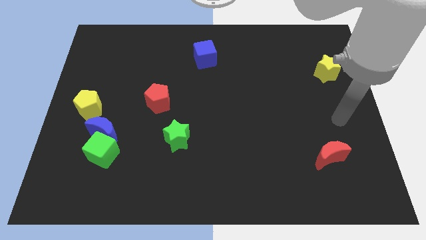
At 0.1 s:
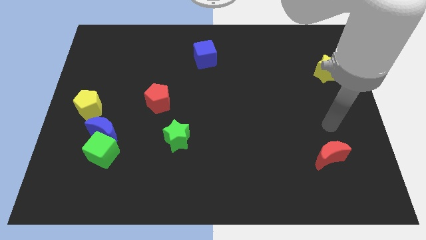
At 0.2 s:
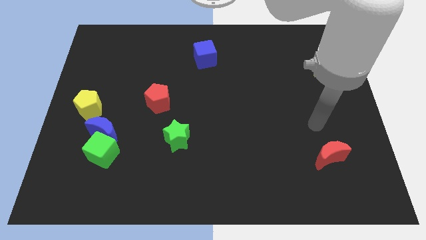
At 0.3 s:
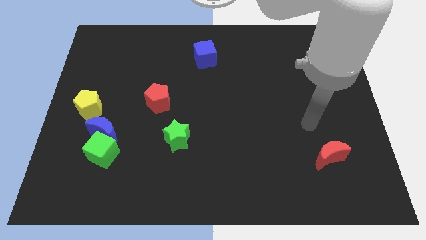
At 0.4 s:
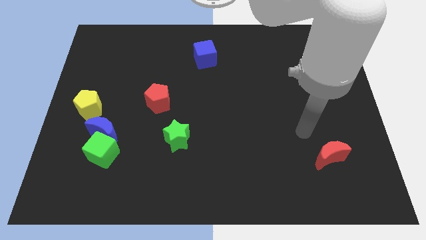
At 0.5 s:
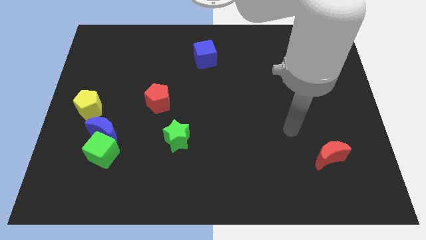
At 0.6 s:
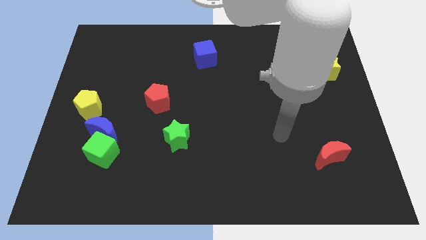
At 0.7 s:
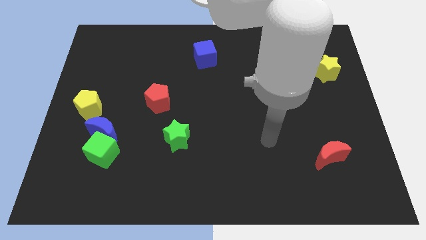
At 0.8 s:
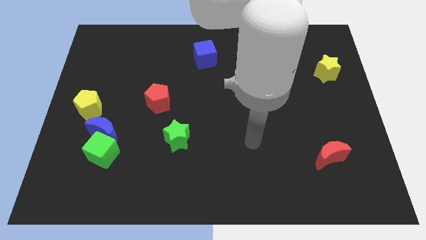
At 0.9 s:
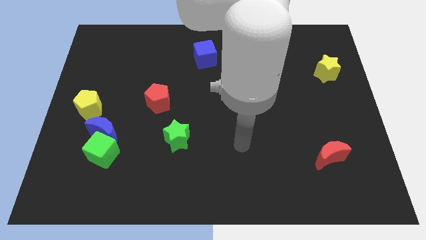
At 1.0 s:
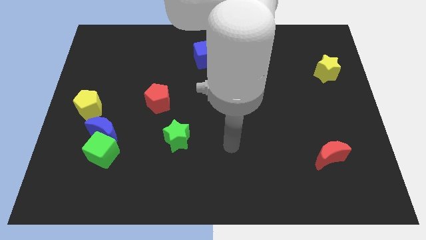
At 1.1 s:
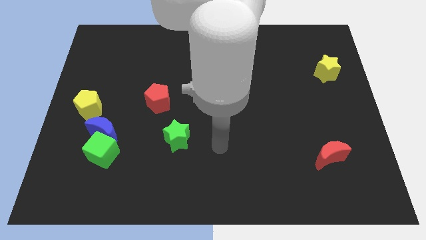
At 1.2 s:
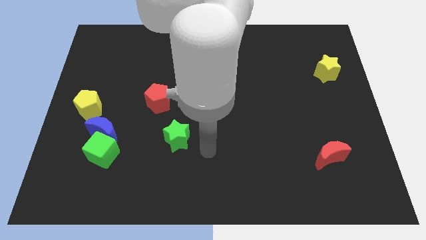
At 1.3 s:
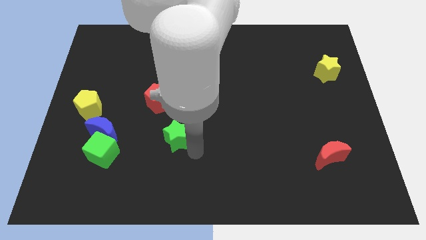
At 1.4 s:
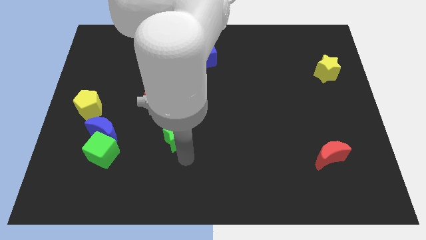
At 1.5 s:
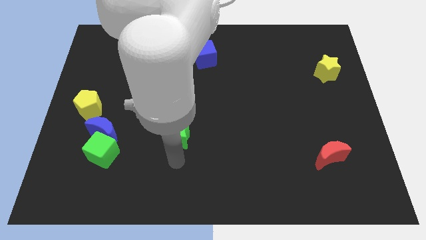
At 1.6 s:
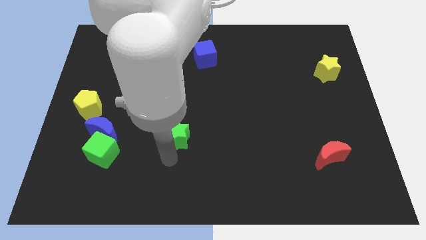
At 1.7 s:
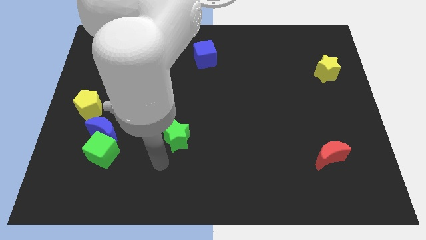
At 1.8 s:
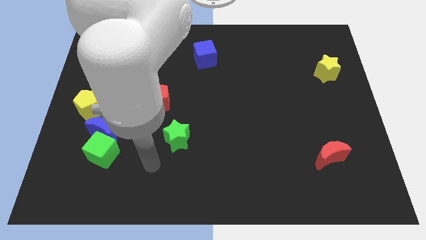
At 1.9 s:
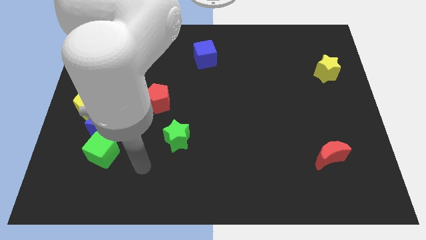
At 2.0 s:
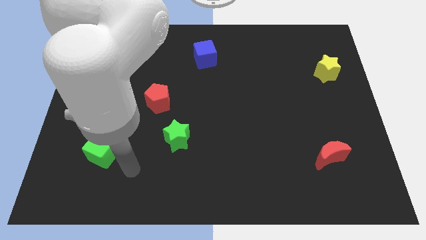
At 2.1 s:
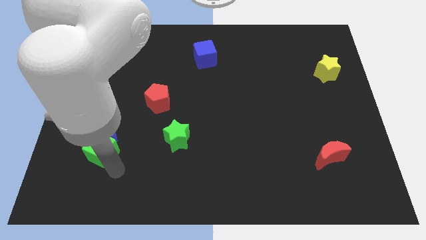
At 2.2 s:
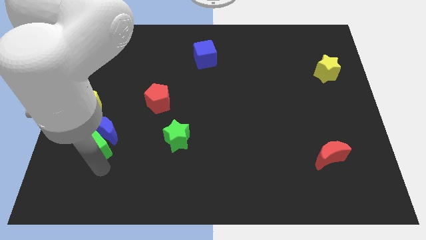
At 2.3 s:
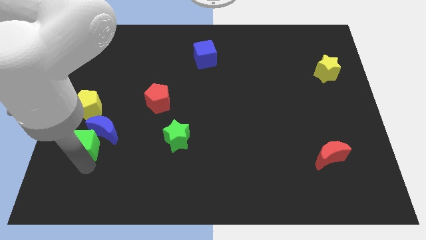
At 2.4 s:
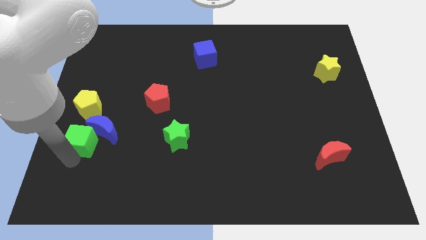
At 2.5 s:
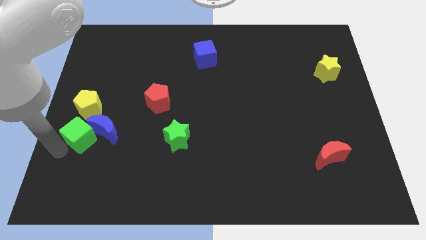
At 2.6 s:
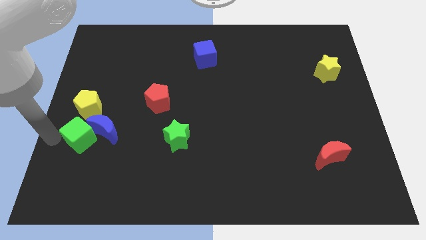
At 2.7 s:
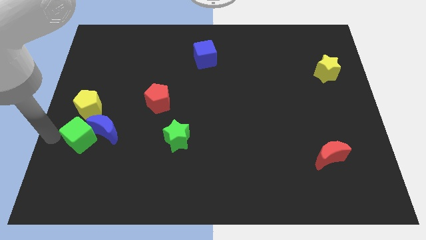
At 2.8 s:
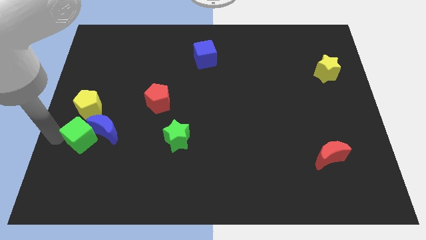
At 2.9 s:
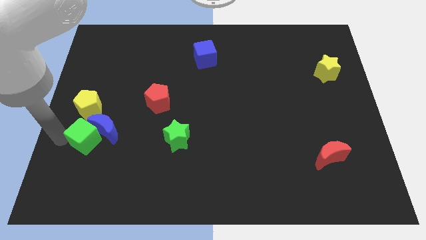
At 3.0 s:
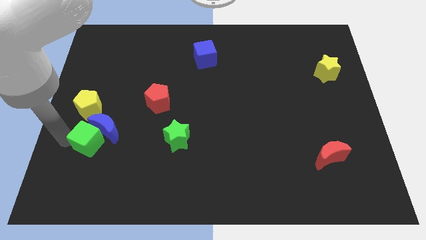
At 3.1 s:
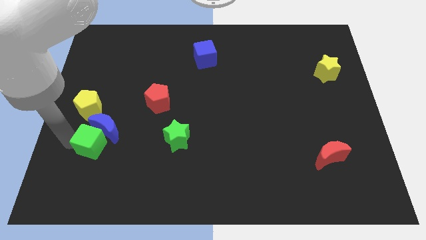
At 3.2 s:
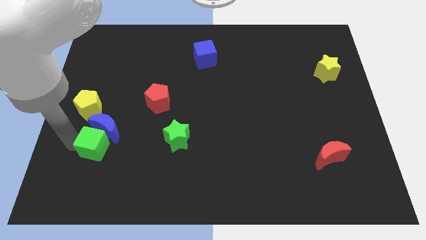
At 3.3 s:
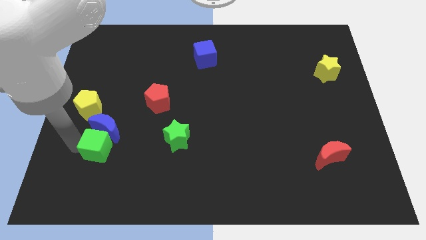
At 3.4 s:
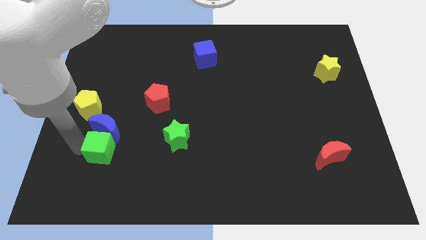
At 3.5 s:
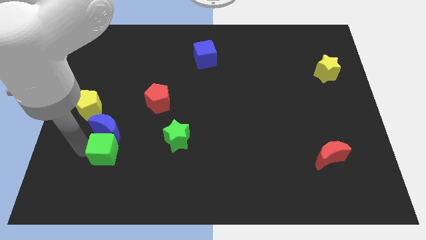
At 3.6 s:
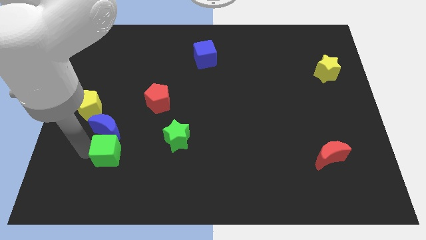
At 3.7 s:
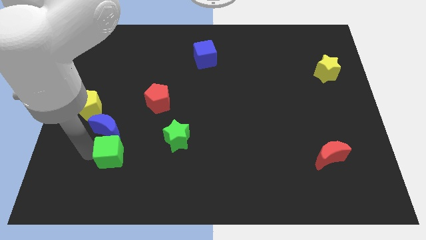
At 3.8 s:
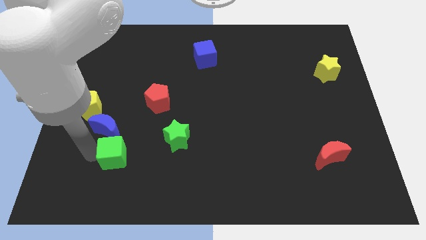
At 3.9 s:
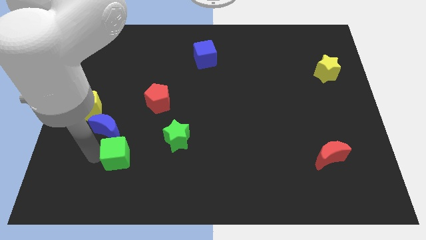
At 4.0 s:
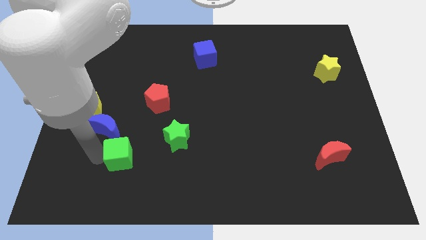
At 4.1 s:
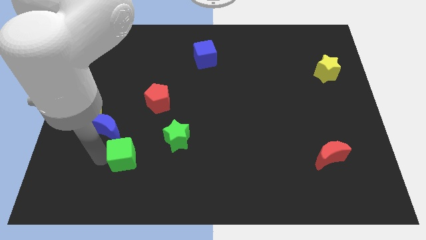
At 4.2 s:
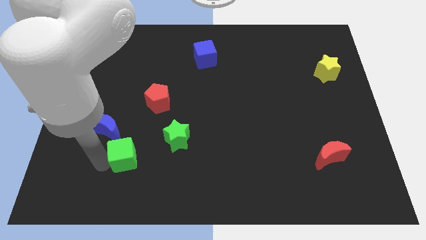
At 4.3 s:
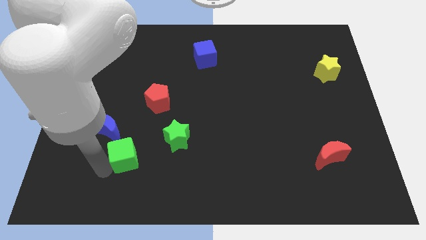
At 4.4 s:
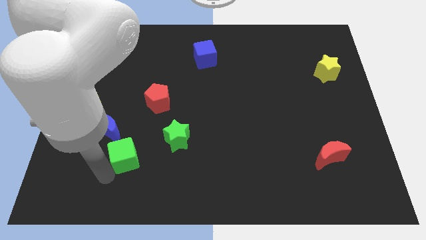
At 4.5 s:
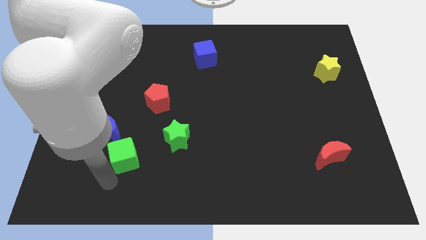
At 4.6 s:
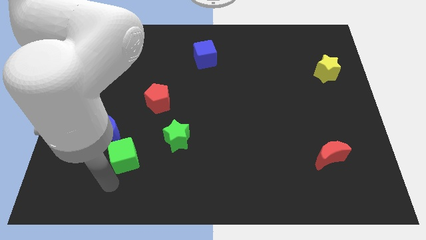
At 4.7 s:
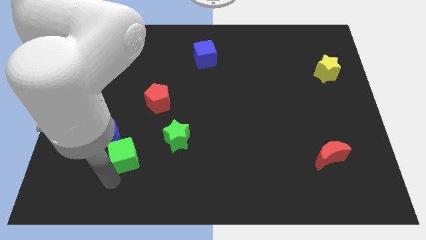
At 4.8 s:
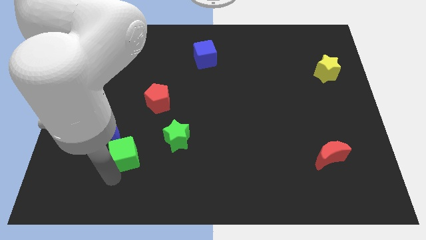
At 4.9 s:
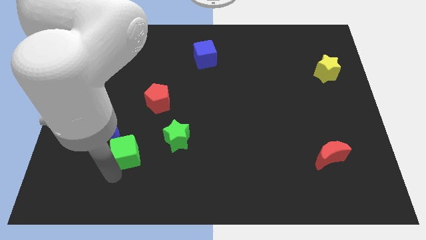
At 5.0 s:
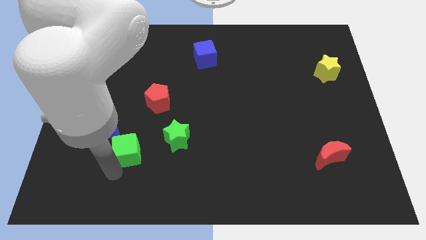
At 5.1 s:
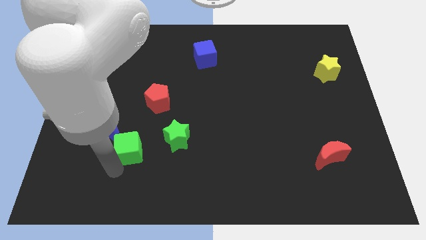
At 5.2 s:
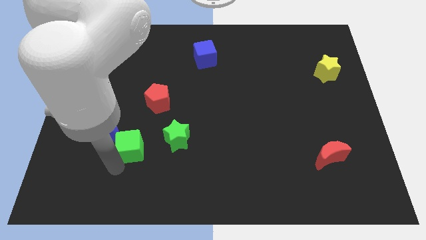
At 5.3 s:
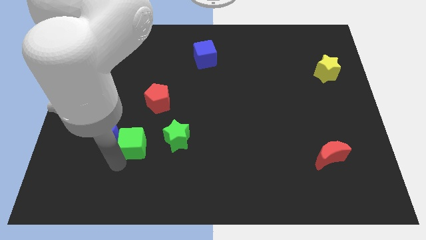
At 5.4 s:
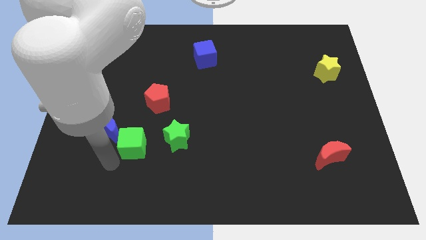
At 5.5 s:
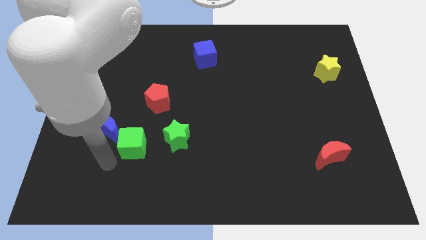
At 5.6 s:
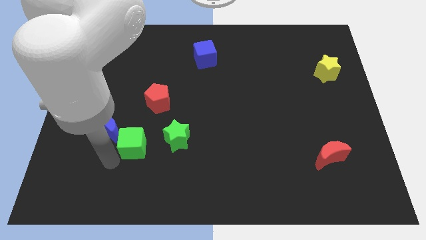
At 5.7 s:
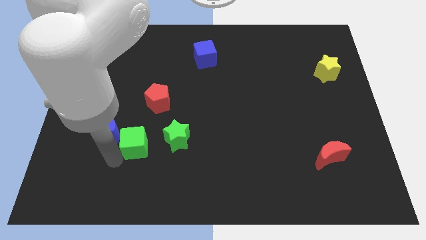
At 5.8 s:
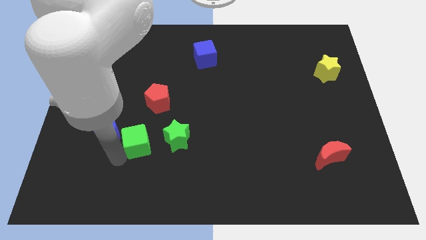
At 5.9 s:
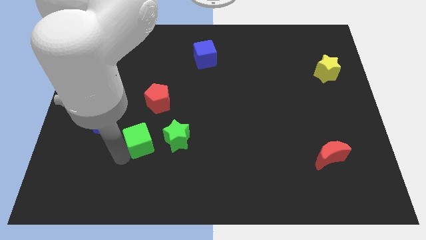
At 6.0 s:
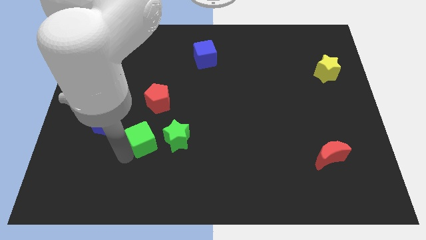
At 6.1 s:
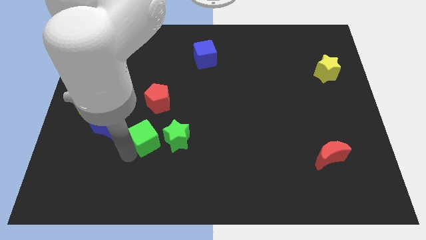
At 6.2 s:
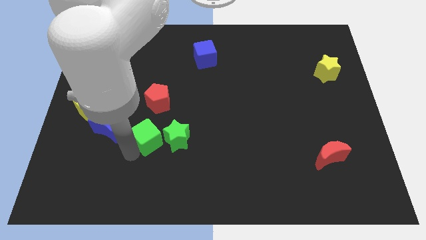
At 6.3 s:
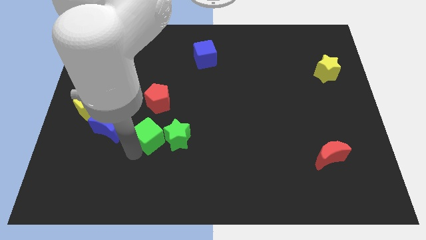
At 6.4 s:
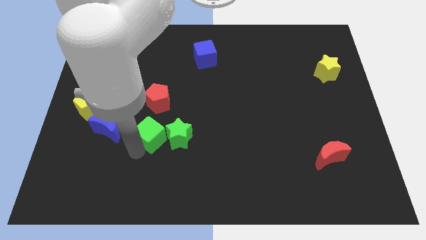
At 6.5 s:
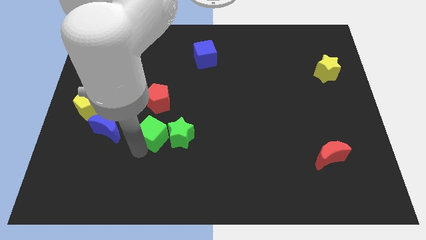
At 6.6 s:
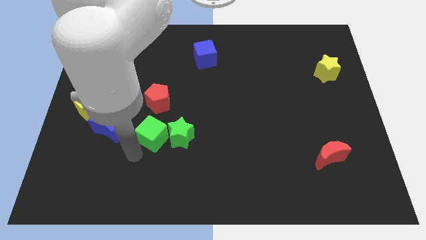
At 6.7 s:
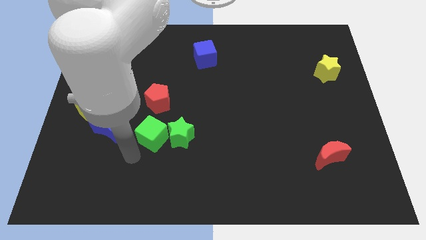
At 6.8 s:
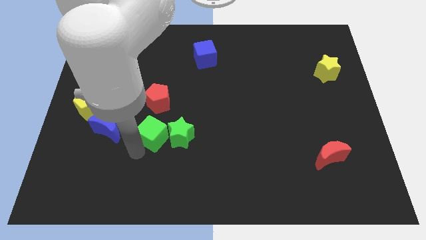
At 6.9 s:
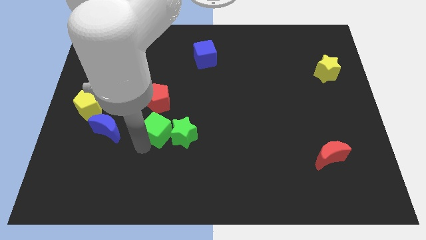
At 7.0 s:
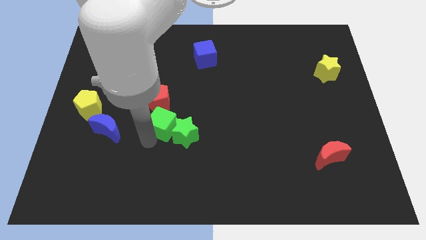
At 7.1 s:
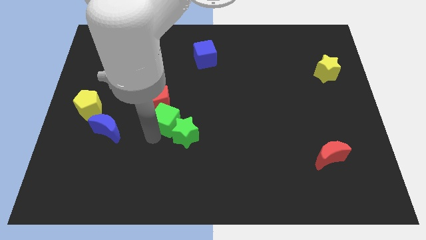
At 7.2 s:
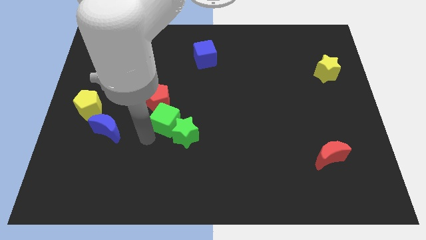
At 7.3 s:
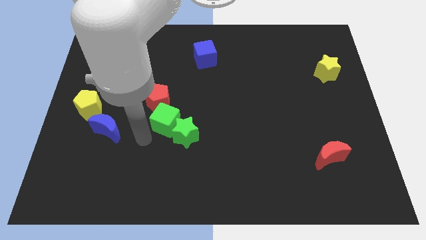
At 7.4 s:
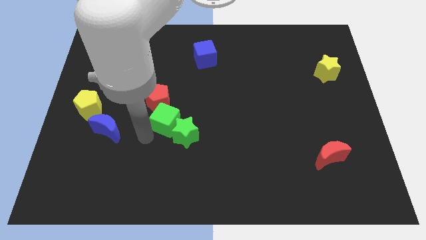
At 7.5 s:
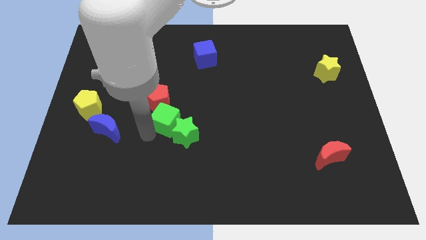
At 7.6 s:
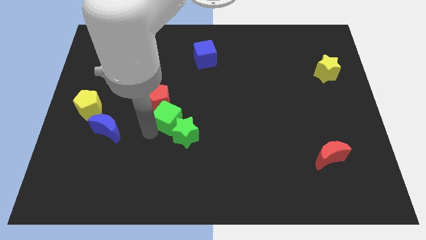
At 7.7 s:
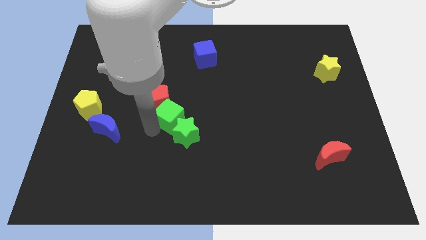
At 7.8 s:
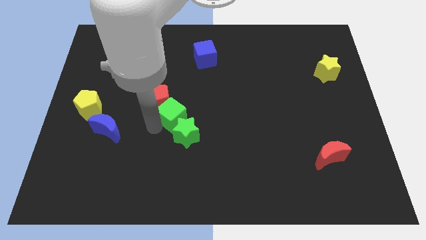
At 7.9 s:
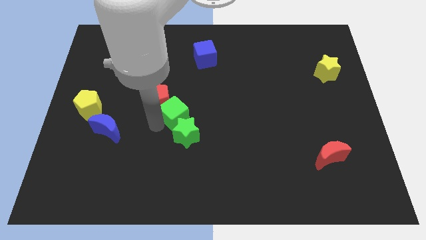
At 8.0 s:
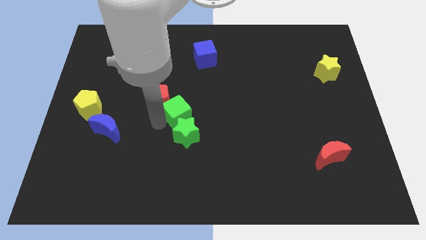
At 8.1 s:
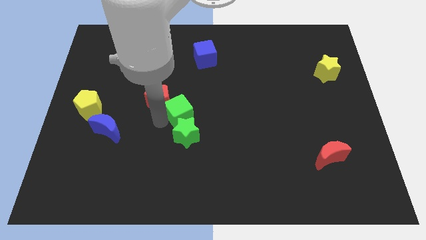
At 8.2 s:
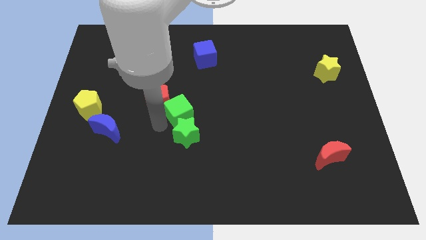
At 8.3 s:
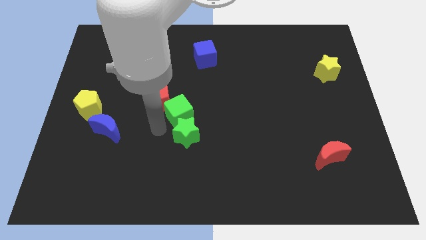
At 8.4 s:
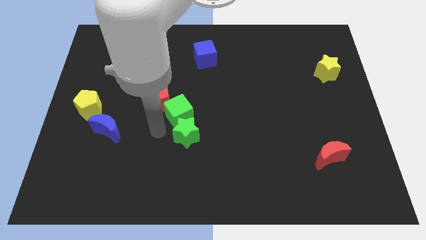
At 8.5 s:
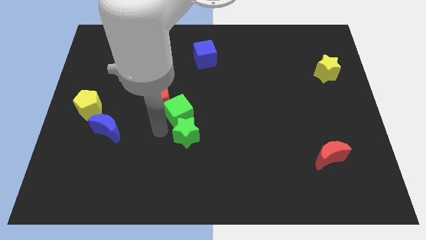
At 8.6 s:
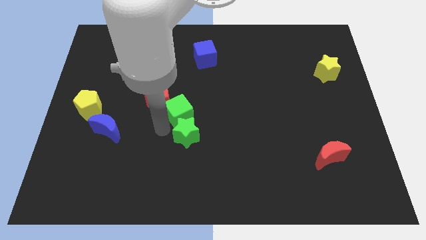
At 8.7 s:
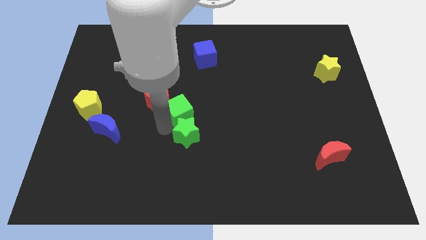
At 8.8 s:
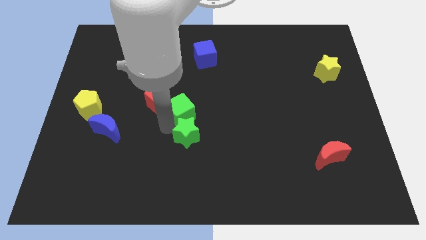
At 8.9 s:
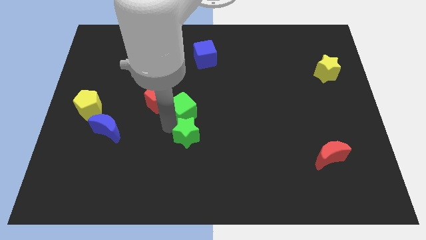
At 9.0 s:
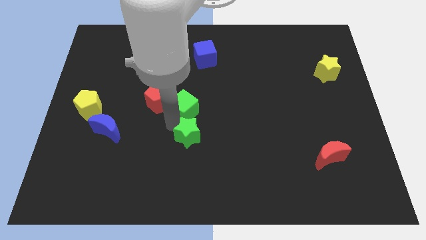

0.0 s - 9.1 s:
push the green cube upwards and then right
